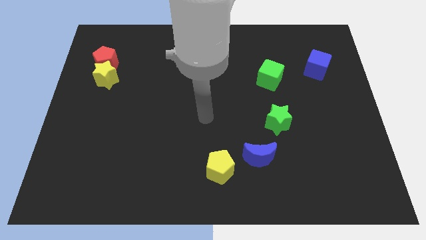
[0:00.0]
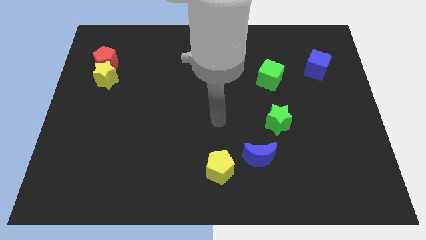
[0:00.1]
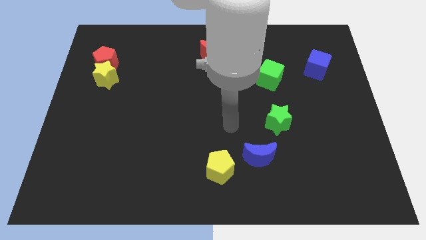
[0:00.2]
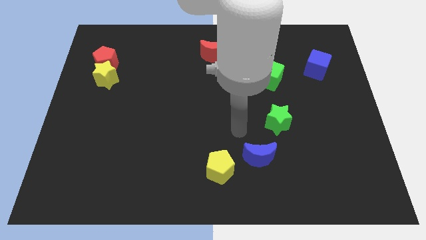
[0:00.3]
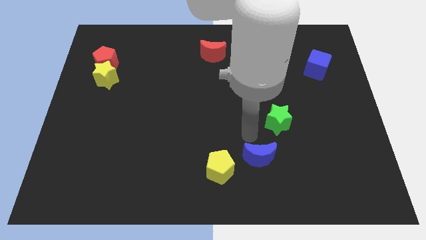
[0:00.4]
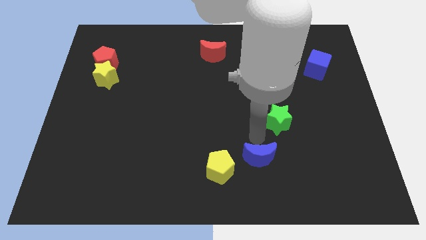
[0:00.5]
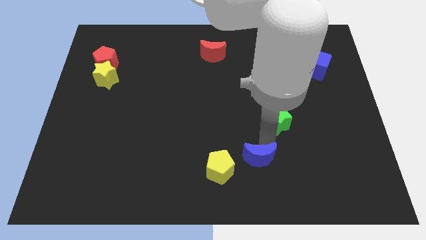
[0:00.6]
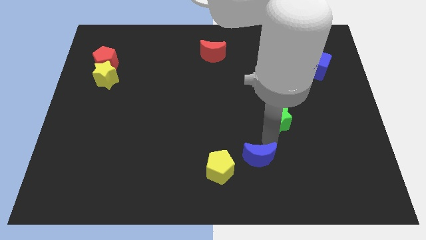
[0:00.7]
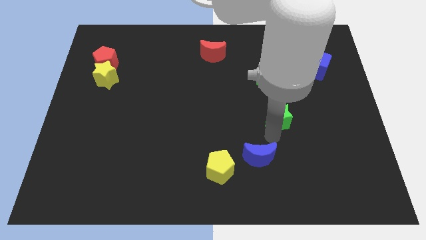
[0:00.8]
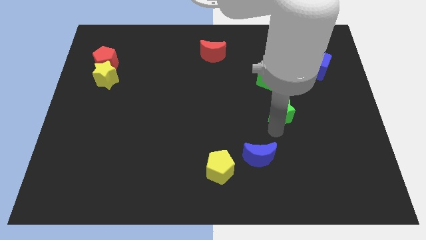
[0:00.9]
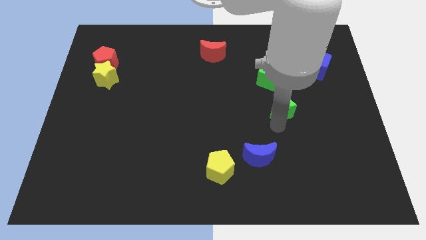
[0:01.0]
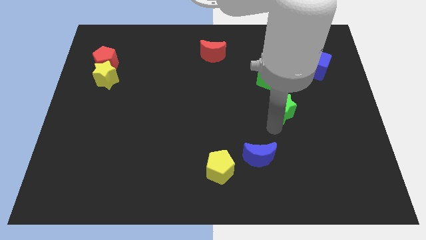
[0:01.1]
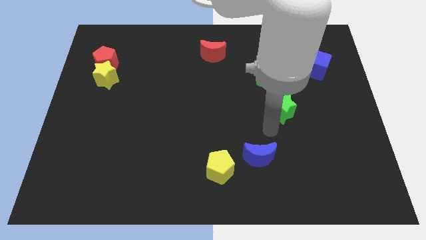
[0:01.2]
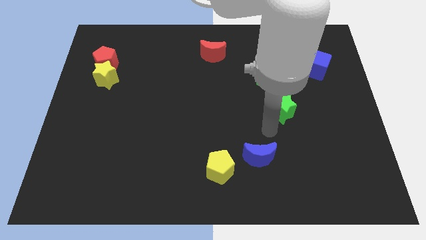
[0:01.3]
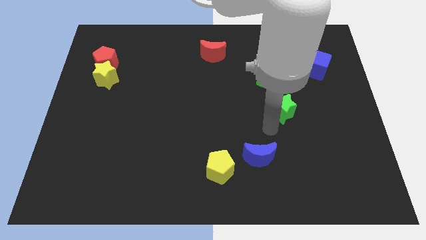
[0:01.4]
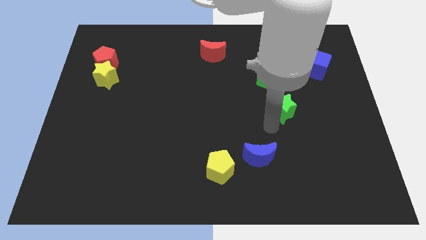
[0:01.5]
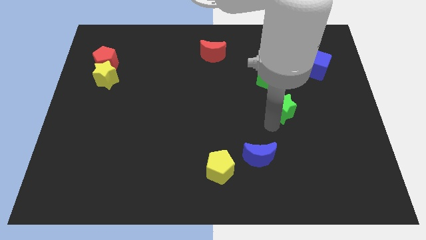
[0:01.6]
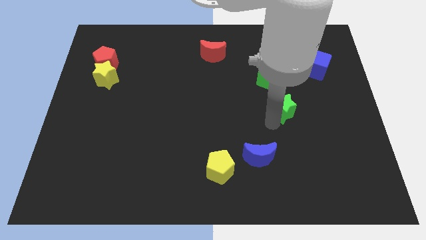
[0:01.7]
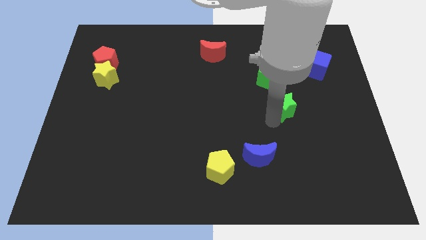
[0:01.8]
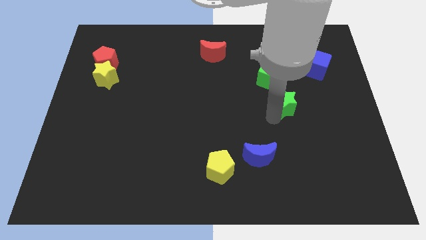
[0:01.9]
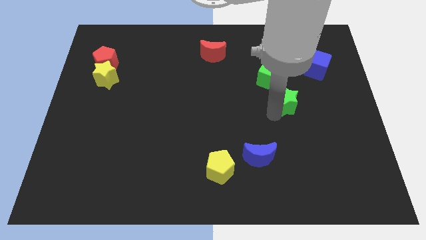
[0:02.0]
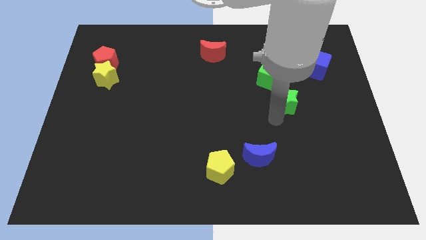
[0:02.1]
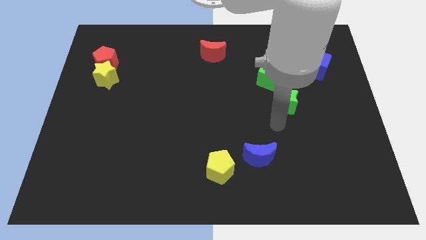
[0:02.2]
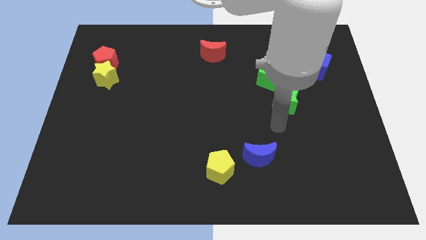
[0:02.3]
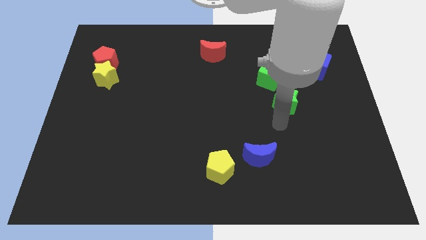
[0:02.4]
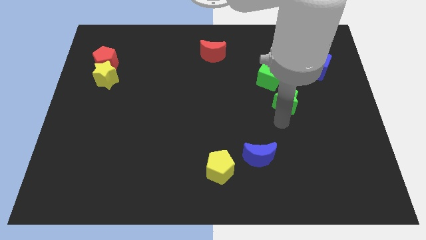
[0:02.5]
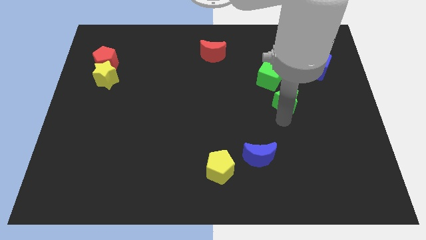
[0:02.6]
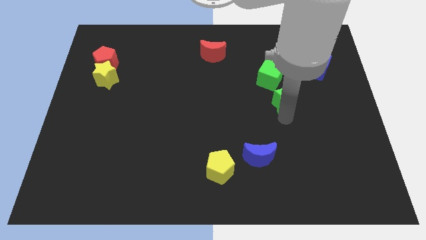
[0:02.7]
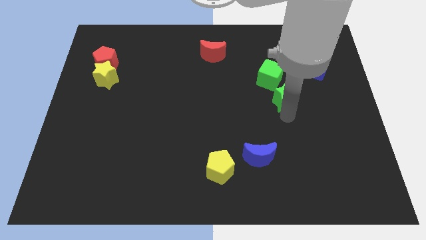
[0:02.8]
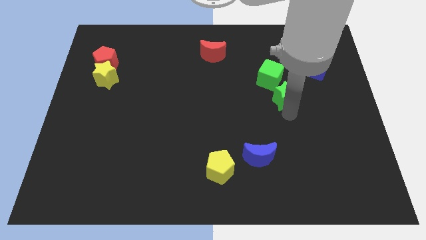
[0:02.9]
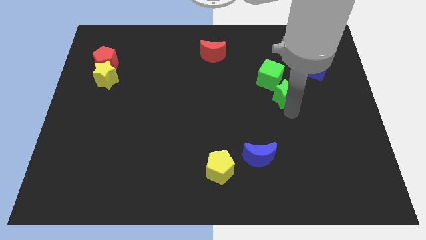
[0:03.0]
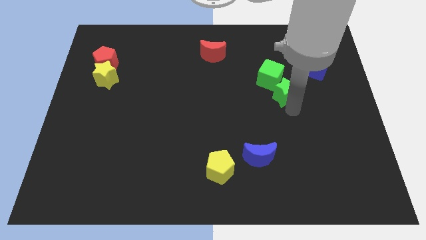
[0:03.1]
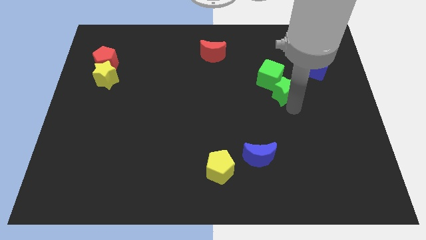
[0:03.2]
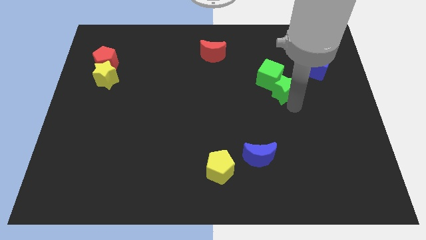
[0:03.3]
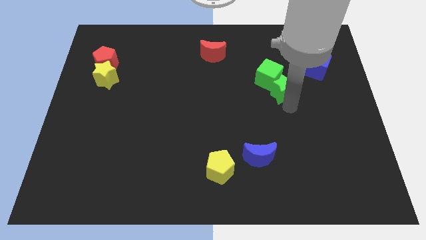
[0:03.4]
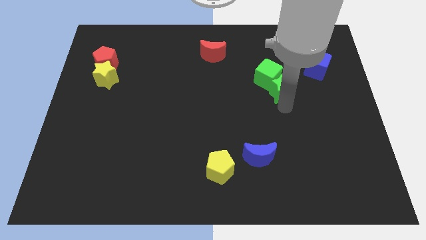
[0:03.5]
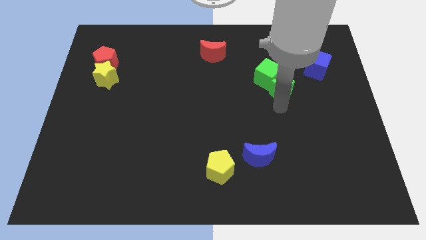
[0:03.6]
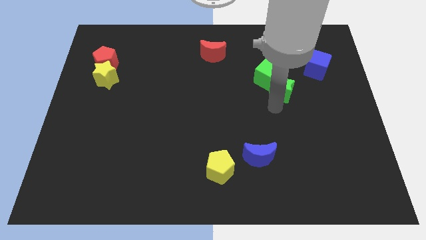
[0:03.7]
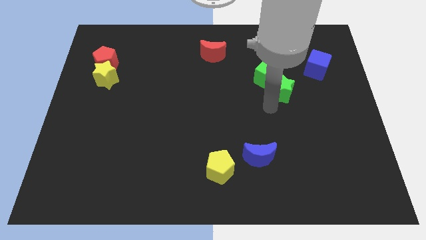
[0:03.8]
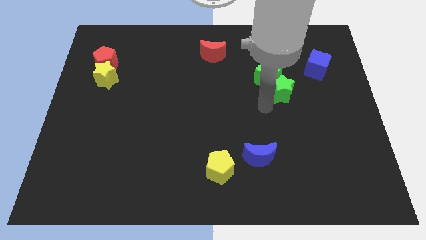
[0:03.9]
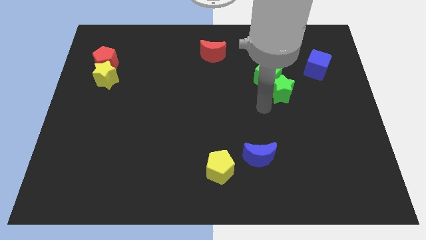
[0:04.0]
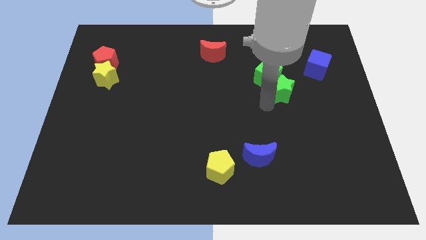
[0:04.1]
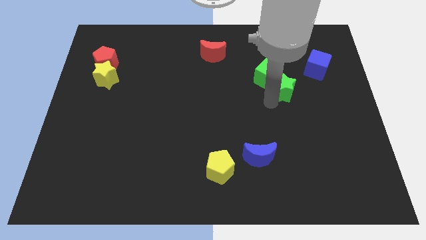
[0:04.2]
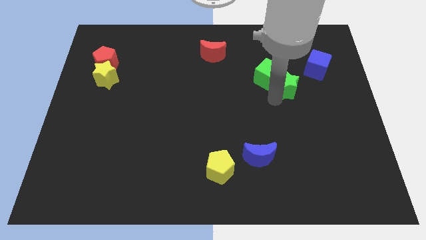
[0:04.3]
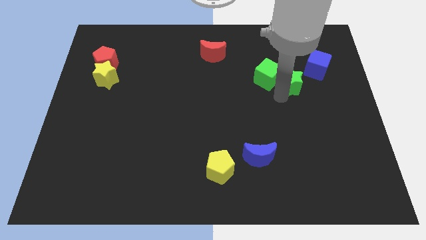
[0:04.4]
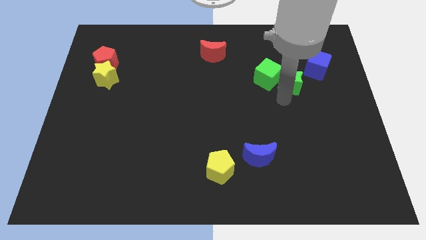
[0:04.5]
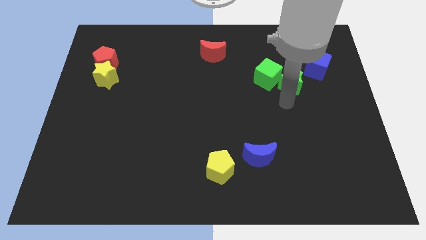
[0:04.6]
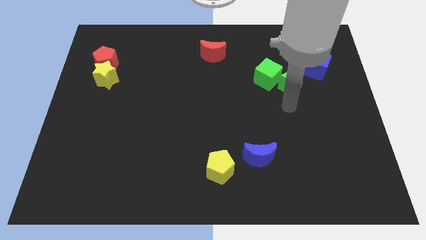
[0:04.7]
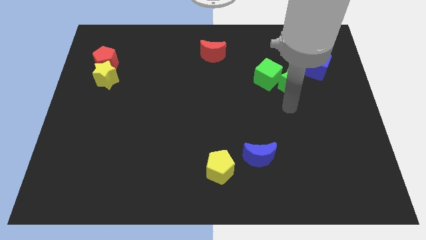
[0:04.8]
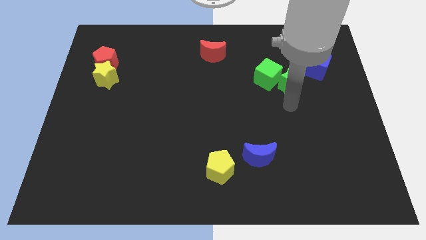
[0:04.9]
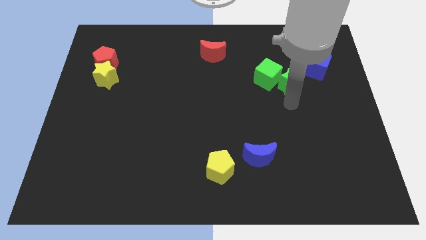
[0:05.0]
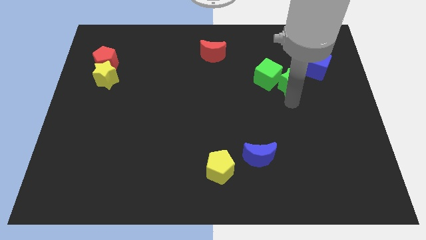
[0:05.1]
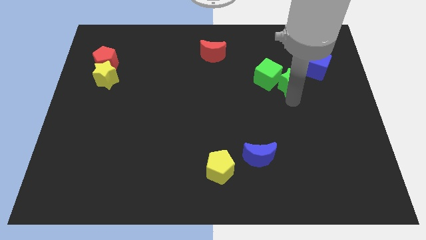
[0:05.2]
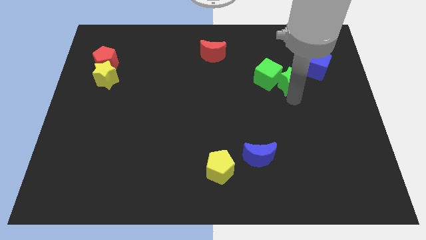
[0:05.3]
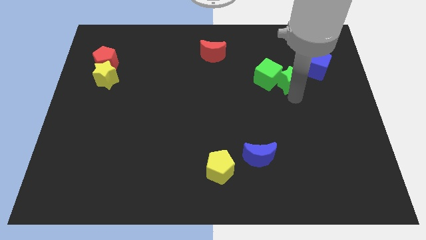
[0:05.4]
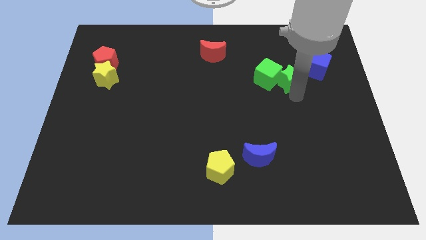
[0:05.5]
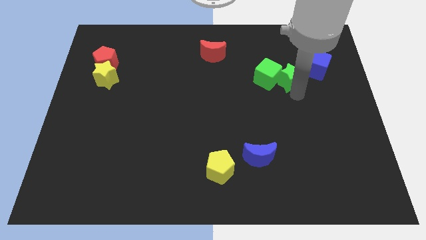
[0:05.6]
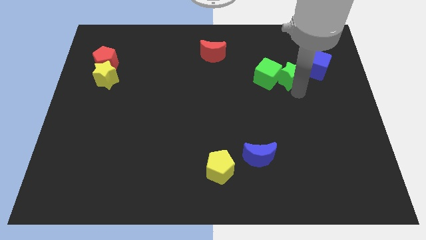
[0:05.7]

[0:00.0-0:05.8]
slide the green star to the top right side of the green cube
